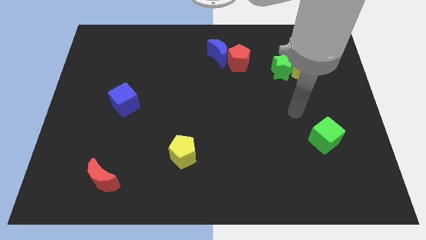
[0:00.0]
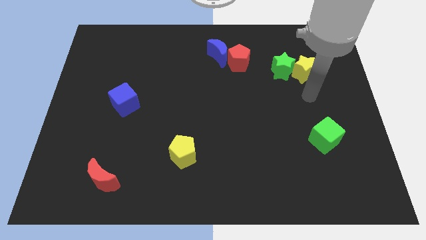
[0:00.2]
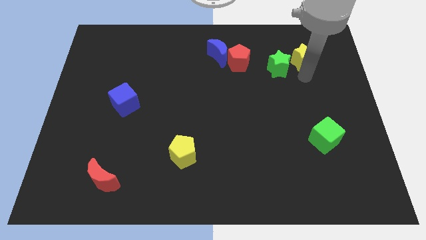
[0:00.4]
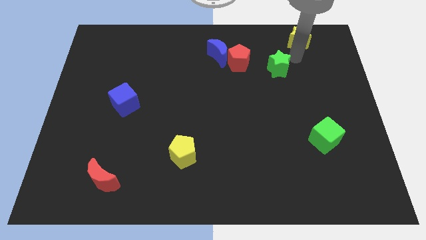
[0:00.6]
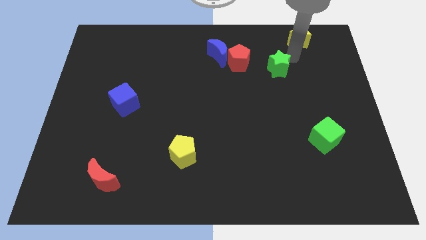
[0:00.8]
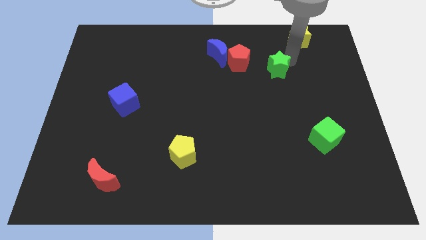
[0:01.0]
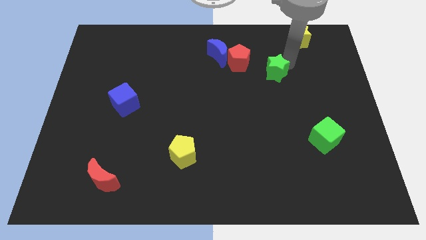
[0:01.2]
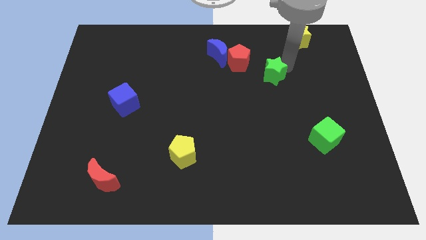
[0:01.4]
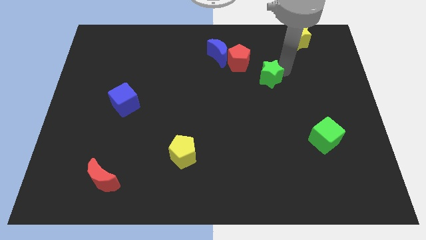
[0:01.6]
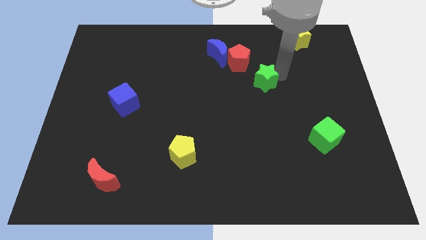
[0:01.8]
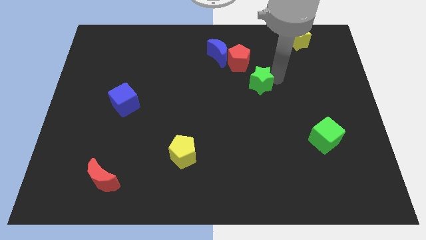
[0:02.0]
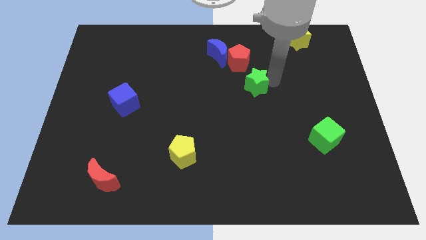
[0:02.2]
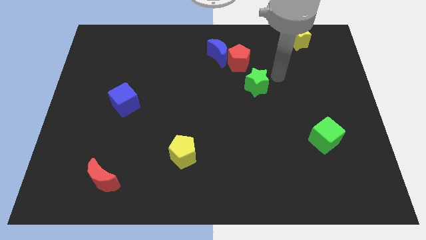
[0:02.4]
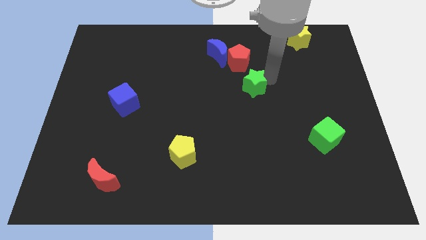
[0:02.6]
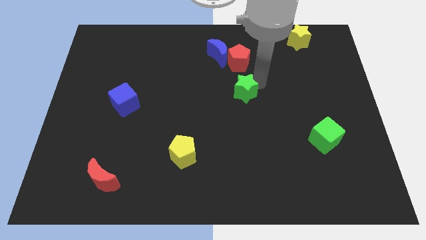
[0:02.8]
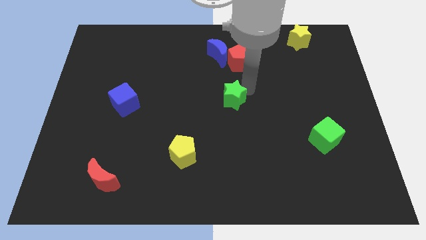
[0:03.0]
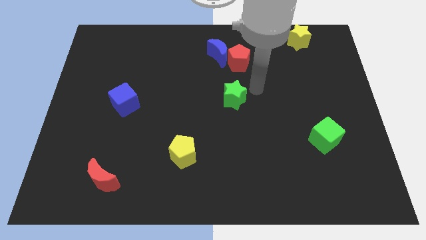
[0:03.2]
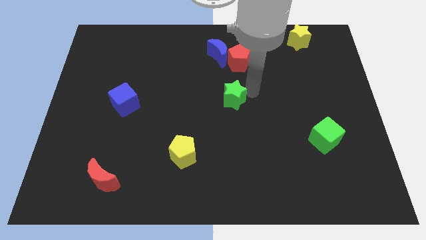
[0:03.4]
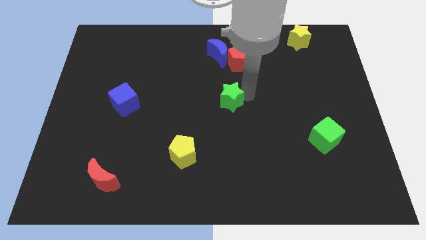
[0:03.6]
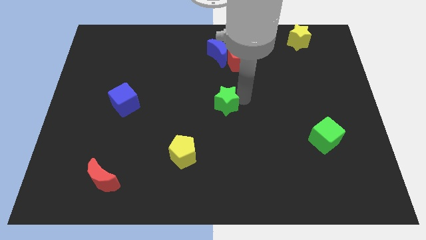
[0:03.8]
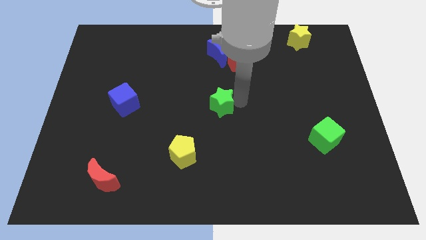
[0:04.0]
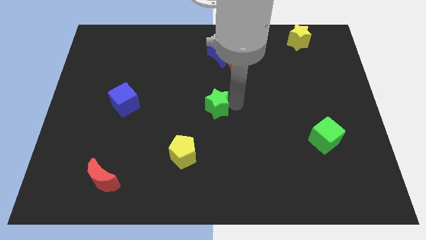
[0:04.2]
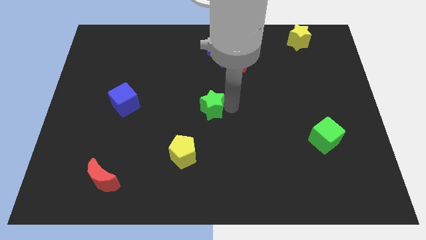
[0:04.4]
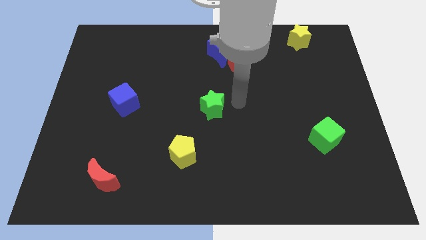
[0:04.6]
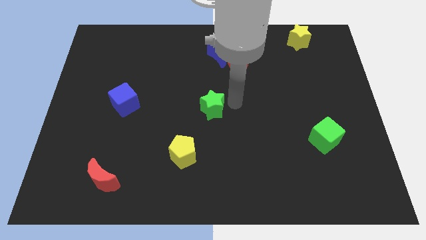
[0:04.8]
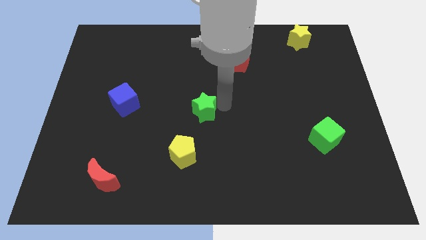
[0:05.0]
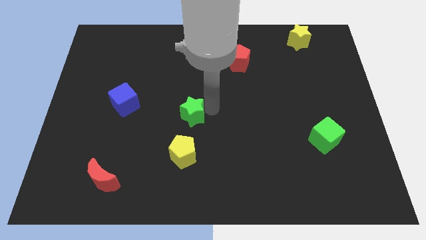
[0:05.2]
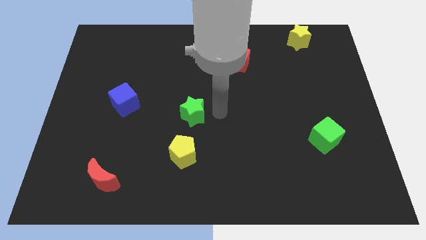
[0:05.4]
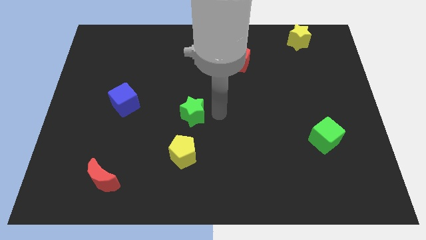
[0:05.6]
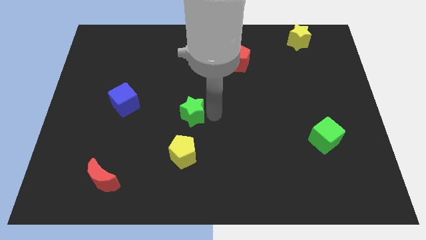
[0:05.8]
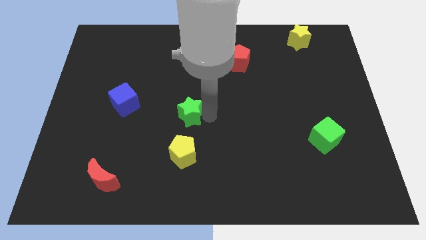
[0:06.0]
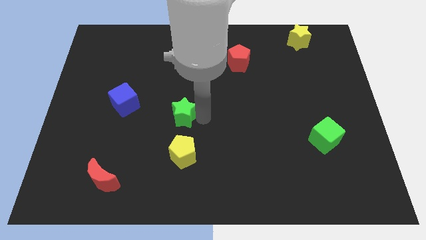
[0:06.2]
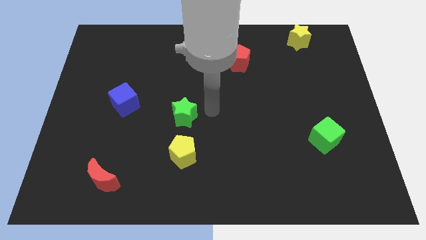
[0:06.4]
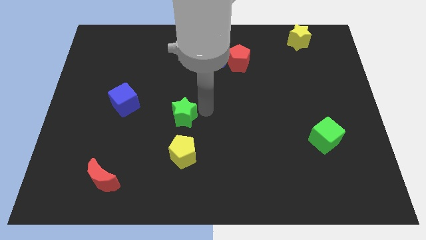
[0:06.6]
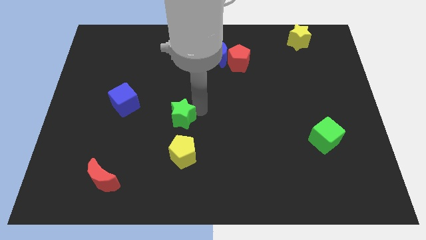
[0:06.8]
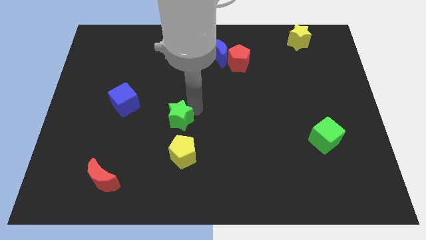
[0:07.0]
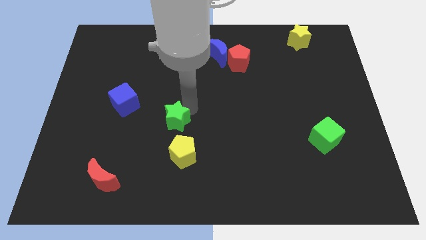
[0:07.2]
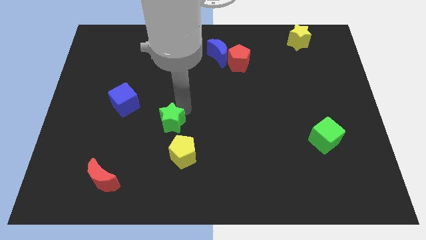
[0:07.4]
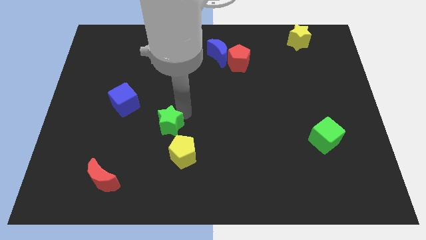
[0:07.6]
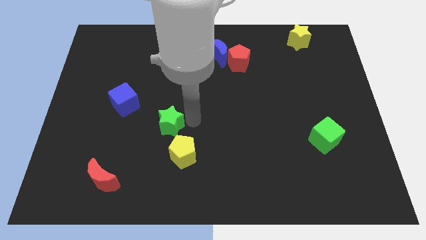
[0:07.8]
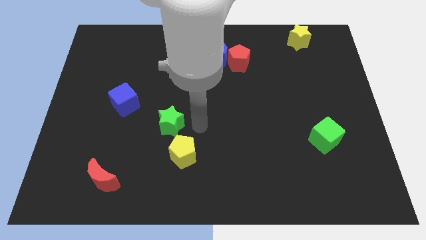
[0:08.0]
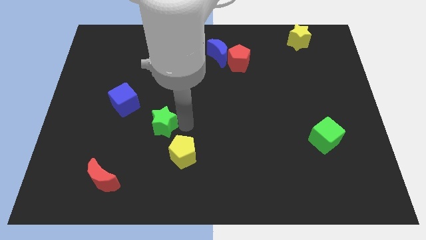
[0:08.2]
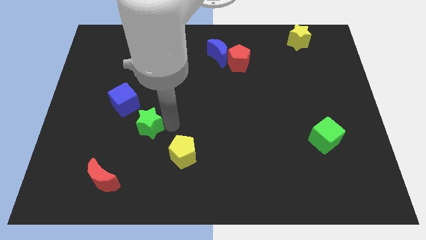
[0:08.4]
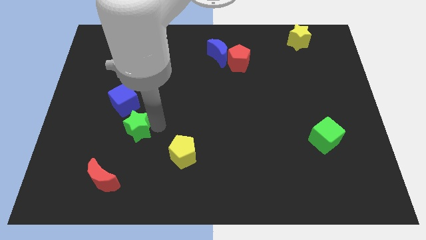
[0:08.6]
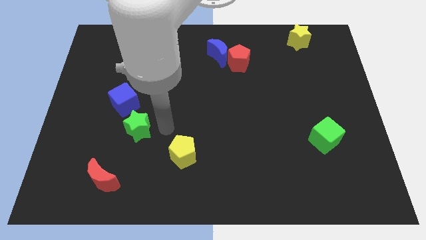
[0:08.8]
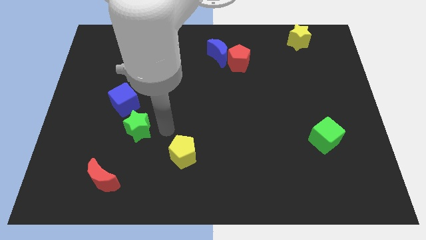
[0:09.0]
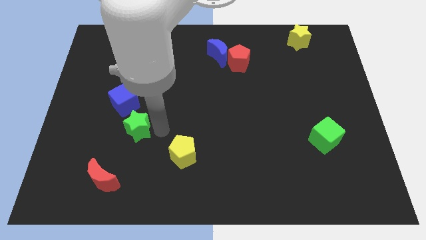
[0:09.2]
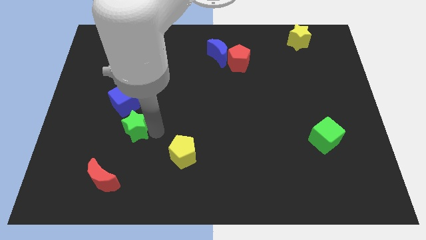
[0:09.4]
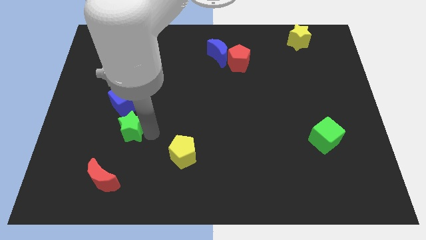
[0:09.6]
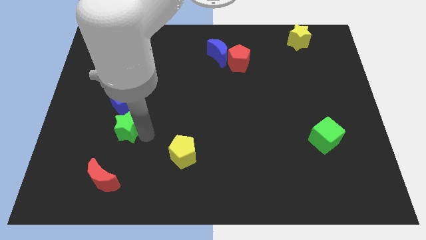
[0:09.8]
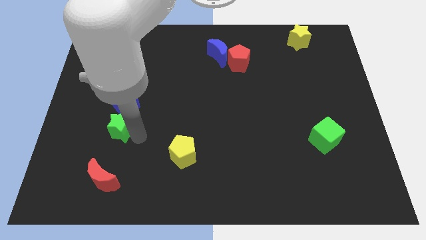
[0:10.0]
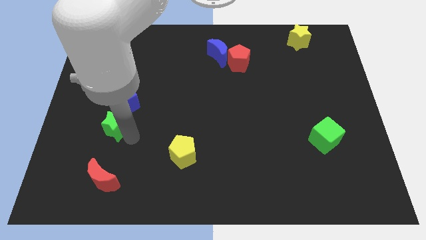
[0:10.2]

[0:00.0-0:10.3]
move the green star diagonally down and to the left of the blue cube

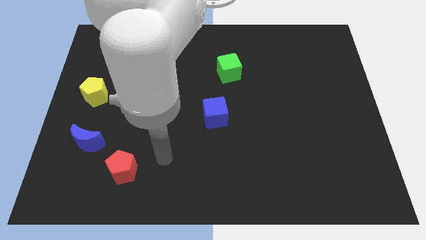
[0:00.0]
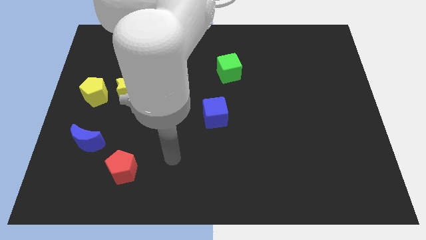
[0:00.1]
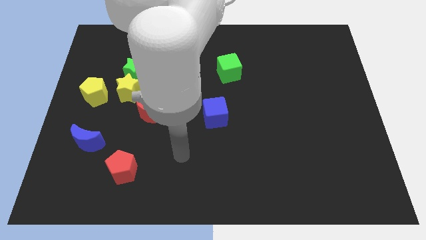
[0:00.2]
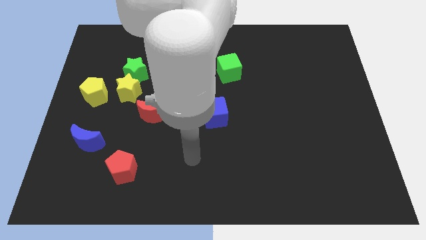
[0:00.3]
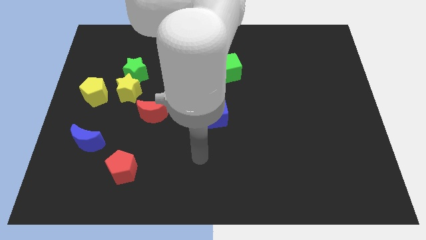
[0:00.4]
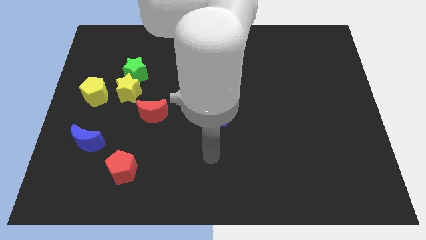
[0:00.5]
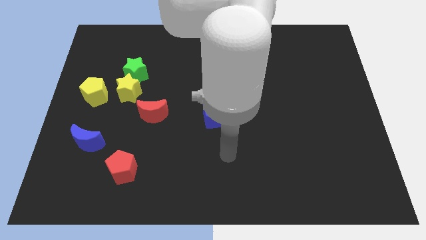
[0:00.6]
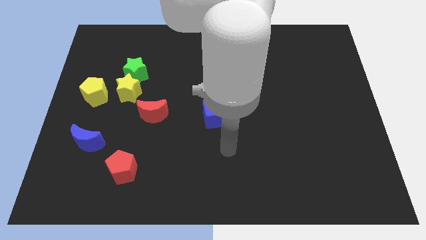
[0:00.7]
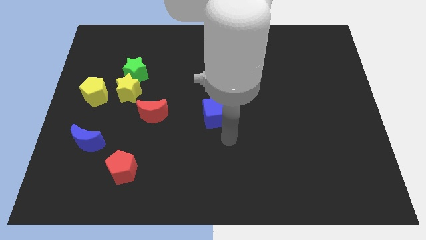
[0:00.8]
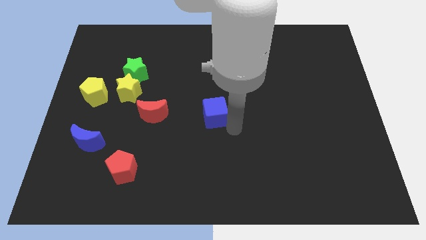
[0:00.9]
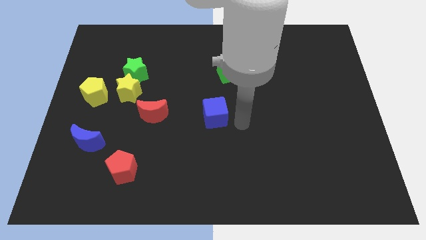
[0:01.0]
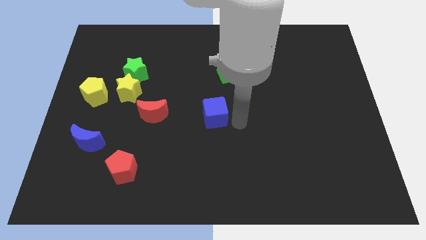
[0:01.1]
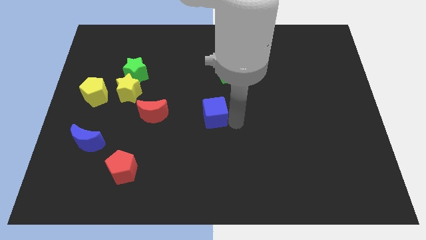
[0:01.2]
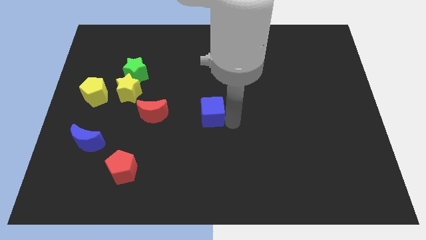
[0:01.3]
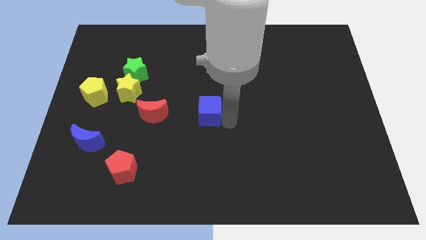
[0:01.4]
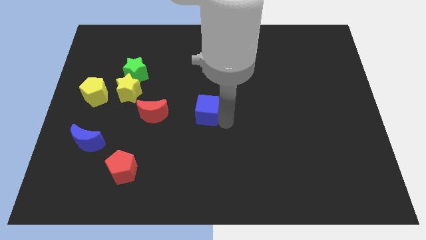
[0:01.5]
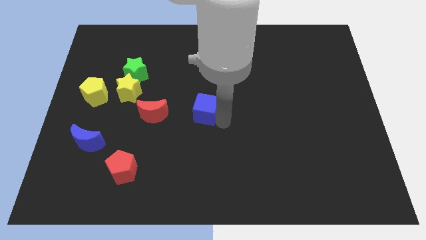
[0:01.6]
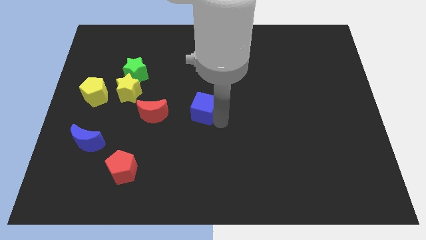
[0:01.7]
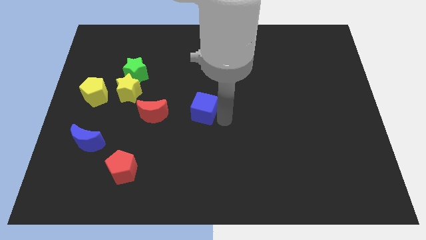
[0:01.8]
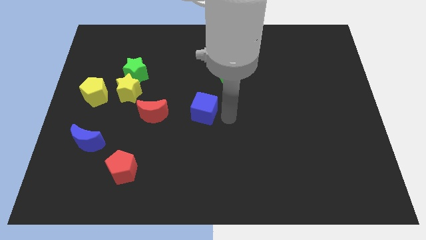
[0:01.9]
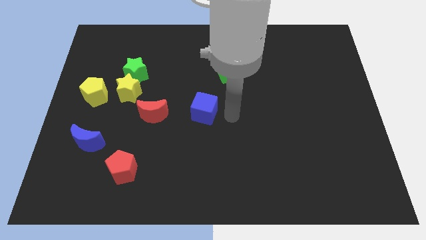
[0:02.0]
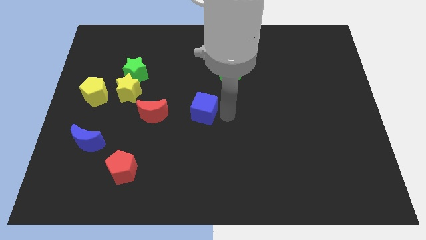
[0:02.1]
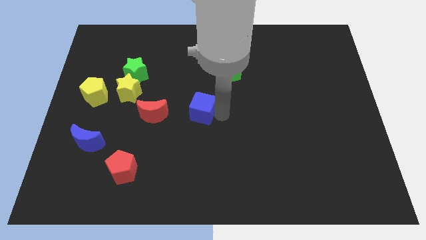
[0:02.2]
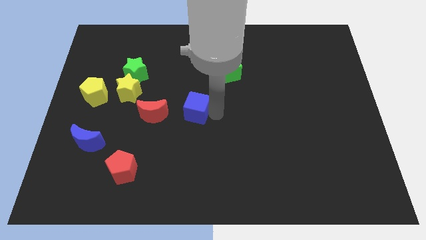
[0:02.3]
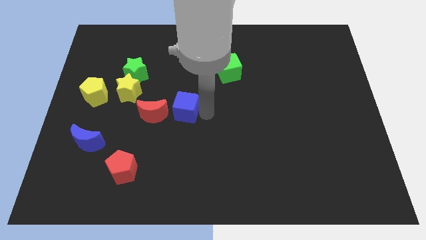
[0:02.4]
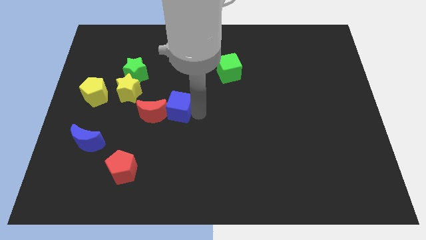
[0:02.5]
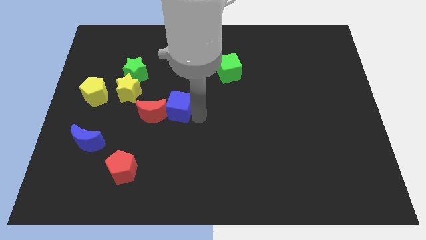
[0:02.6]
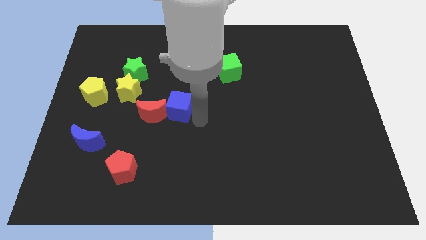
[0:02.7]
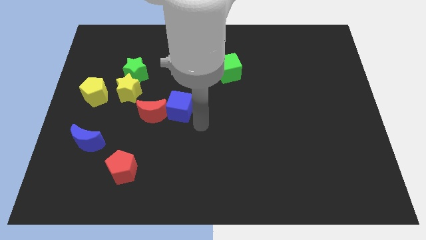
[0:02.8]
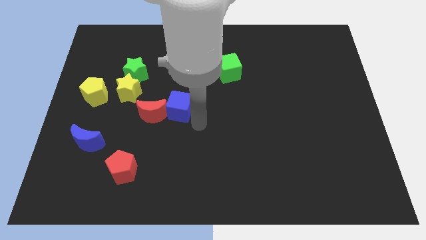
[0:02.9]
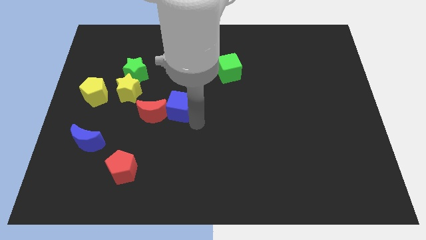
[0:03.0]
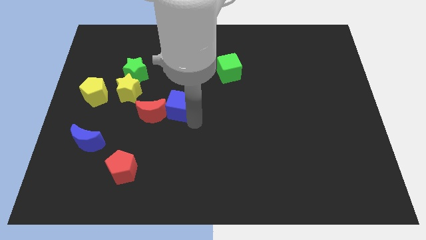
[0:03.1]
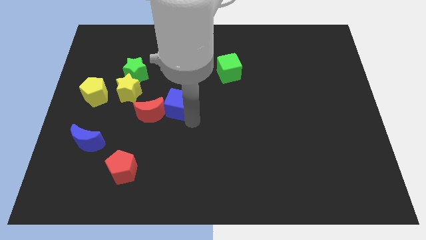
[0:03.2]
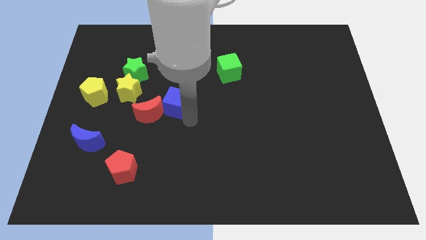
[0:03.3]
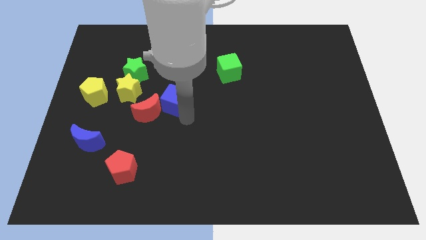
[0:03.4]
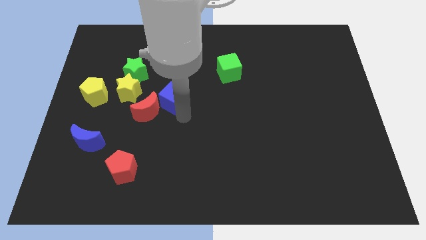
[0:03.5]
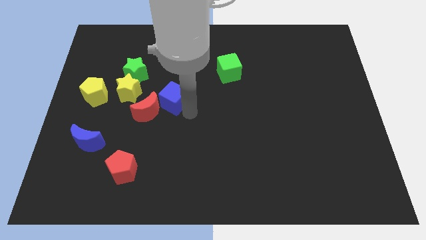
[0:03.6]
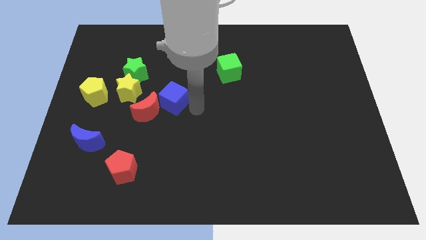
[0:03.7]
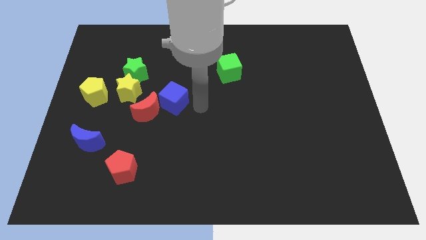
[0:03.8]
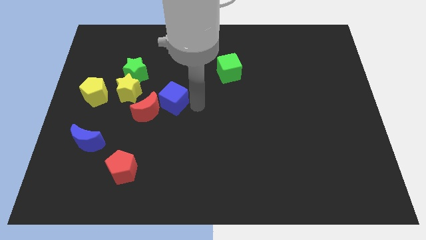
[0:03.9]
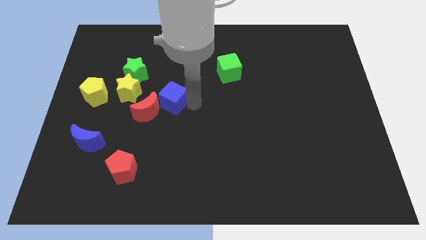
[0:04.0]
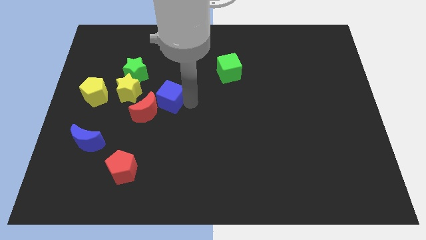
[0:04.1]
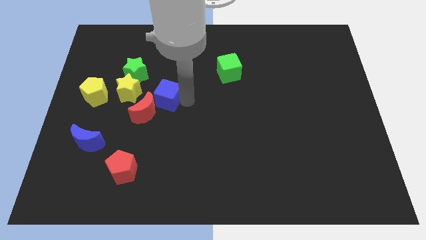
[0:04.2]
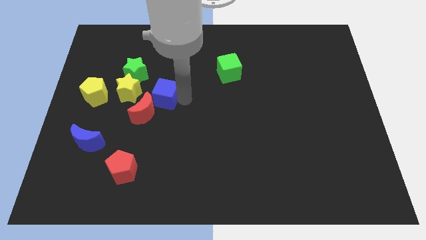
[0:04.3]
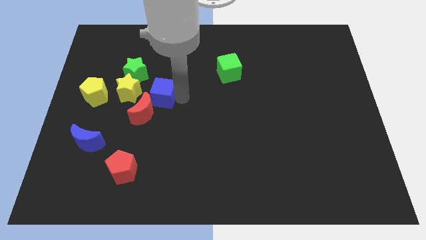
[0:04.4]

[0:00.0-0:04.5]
put the blue cube just right of the yellow pentagon
